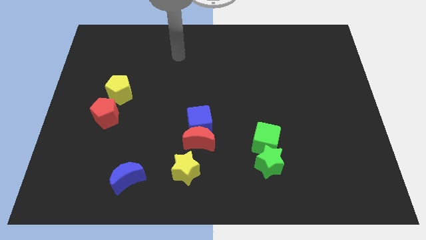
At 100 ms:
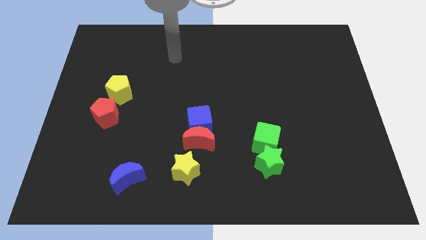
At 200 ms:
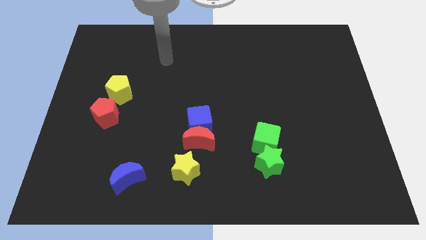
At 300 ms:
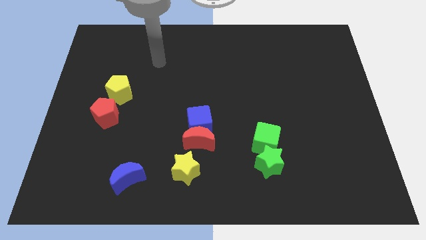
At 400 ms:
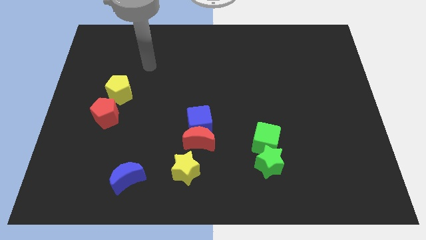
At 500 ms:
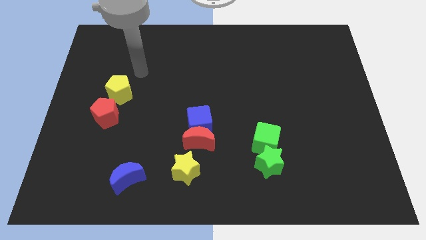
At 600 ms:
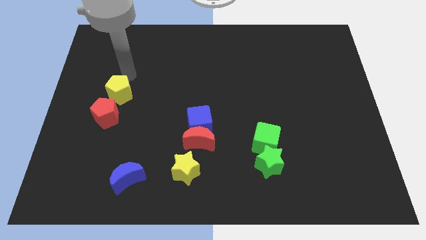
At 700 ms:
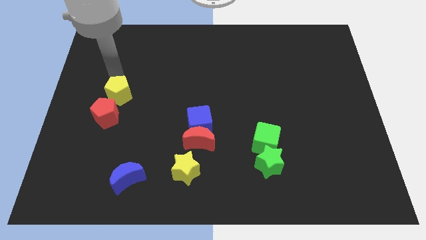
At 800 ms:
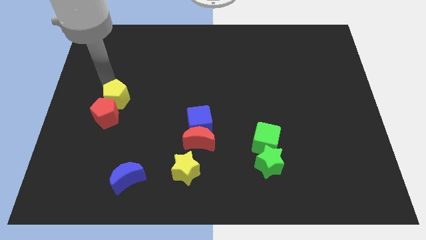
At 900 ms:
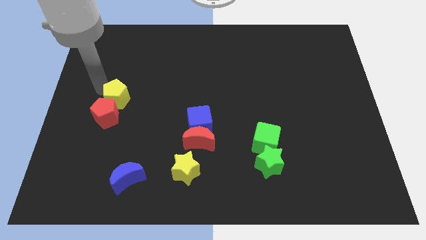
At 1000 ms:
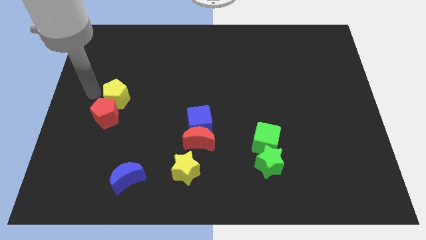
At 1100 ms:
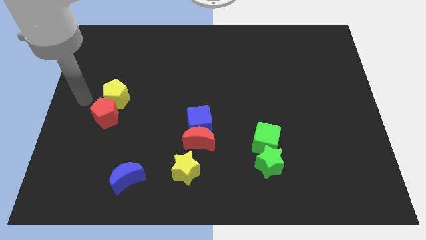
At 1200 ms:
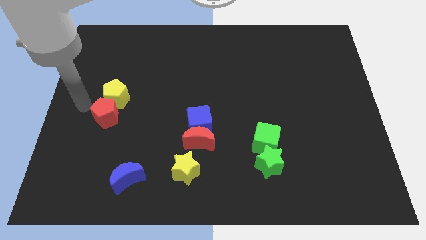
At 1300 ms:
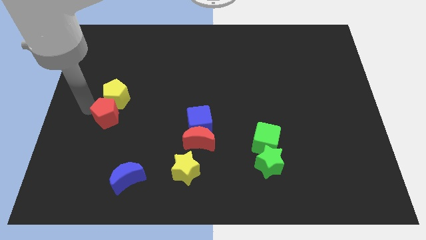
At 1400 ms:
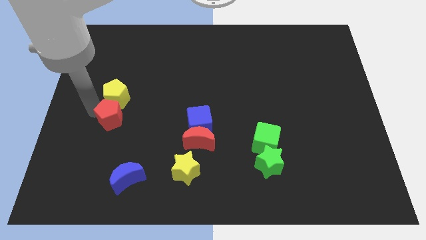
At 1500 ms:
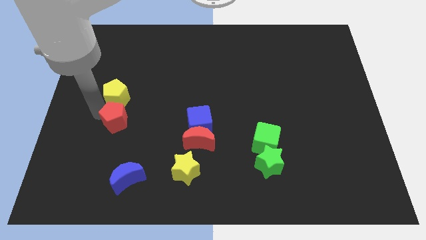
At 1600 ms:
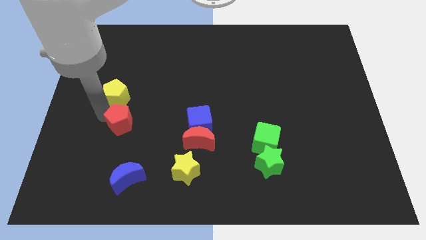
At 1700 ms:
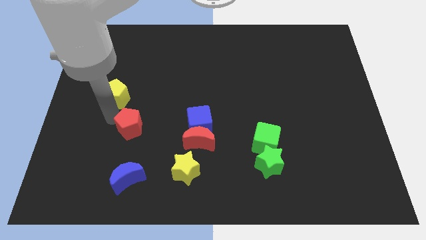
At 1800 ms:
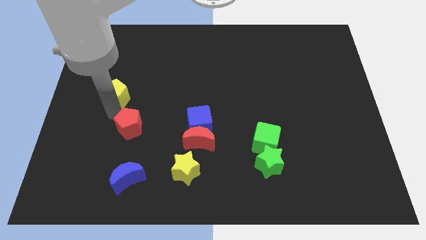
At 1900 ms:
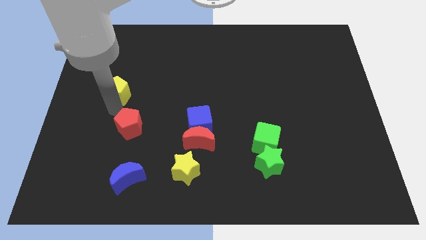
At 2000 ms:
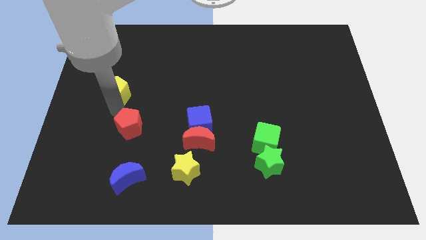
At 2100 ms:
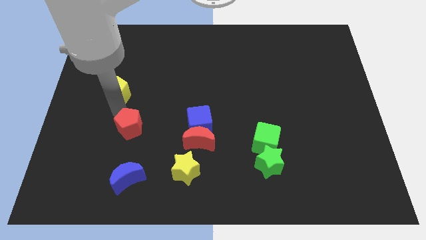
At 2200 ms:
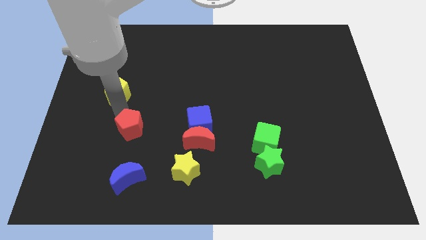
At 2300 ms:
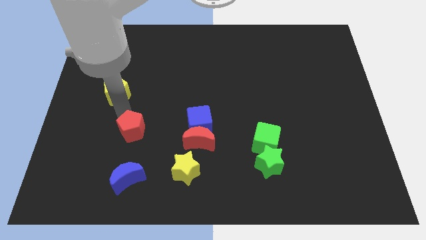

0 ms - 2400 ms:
slide the red pentagon down and to the right somewhat

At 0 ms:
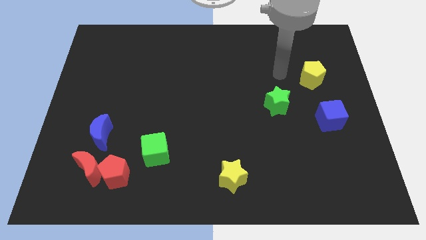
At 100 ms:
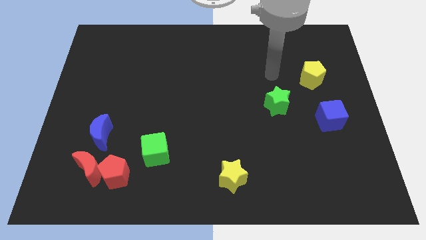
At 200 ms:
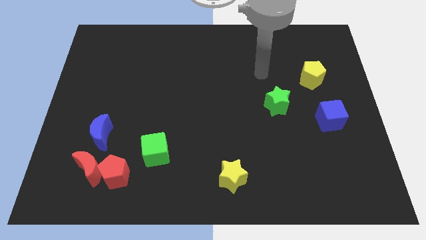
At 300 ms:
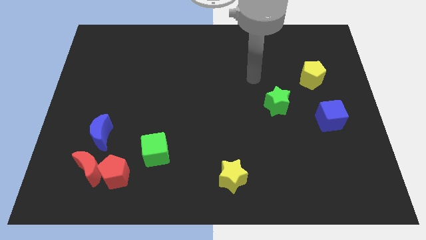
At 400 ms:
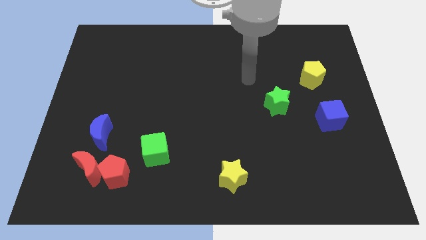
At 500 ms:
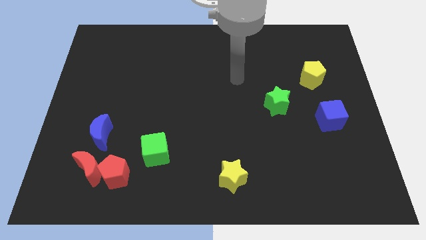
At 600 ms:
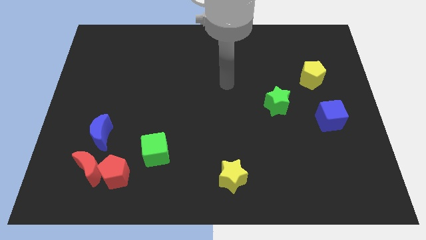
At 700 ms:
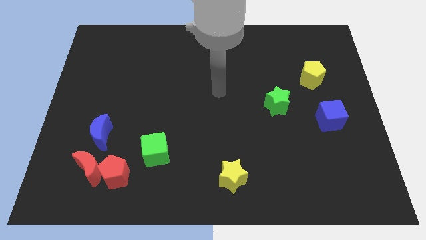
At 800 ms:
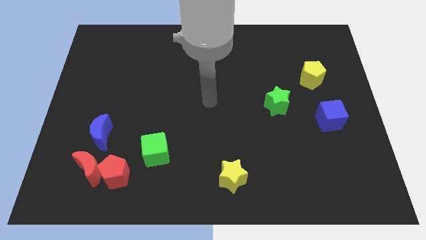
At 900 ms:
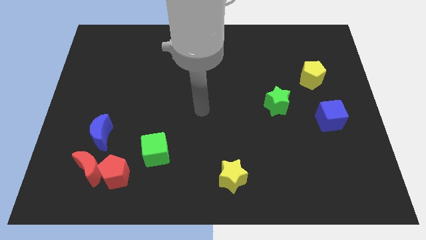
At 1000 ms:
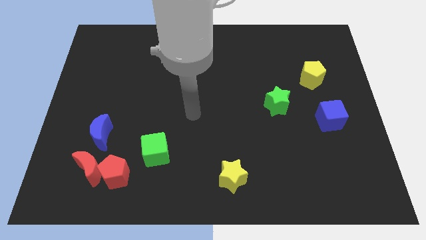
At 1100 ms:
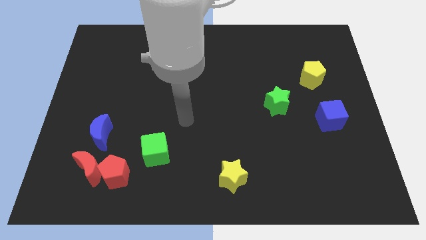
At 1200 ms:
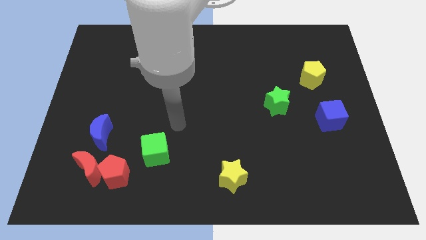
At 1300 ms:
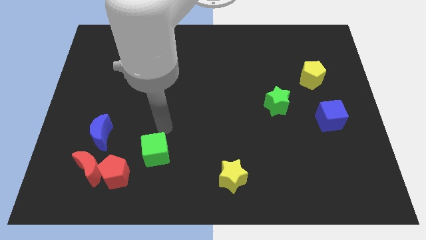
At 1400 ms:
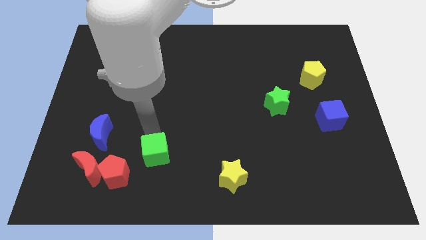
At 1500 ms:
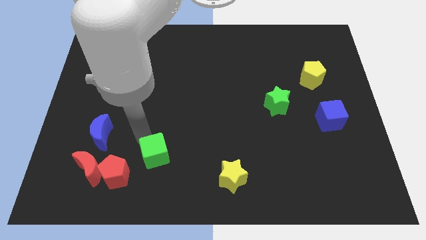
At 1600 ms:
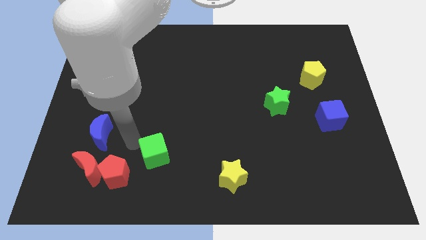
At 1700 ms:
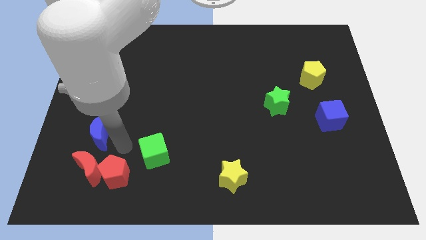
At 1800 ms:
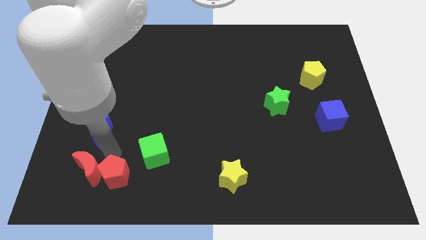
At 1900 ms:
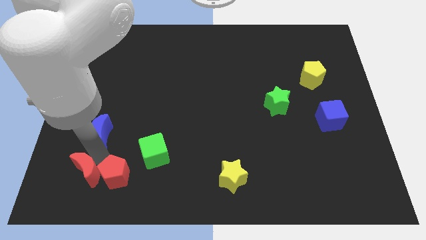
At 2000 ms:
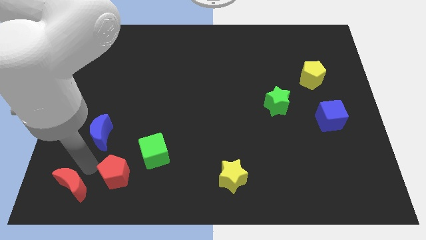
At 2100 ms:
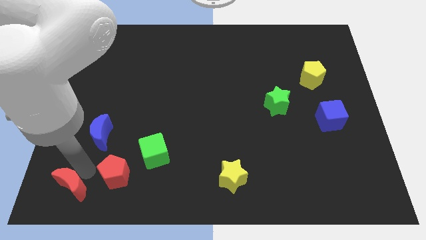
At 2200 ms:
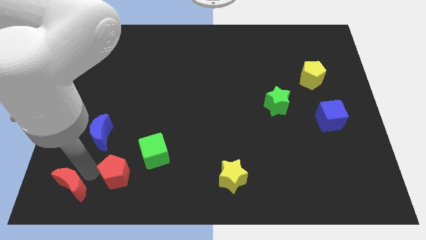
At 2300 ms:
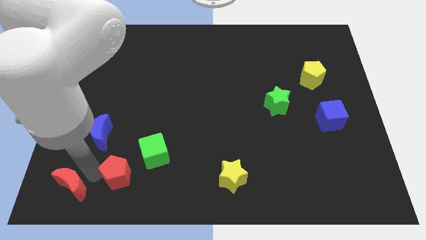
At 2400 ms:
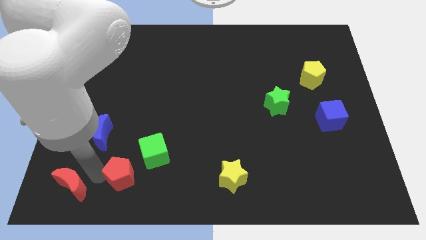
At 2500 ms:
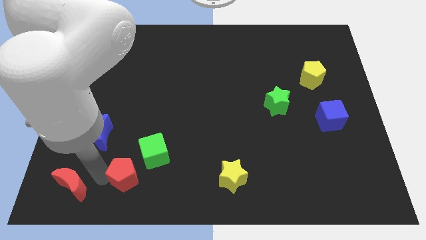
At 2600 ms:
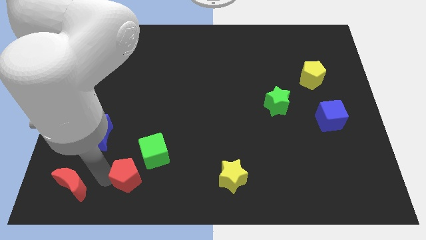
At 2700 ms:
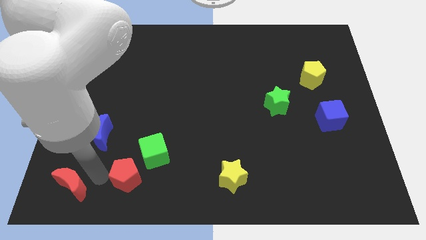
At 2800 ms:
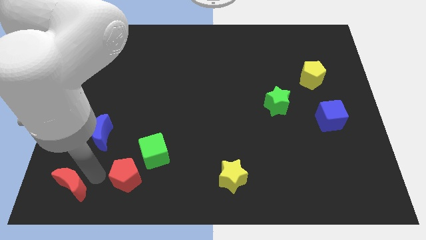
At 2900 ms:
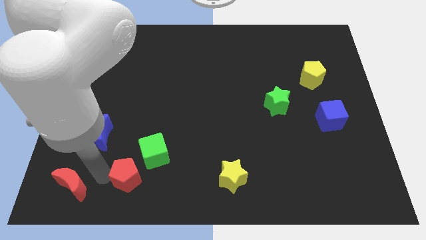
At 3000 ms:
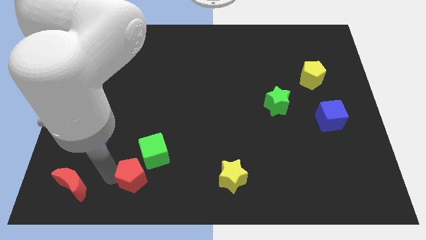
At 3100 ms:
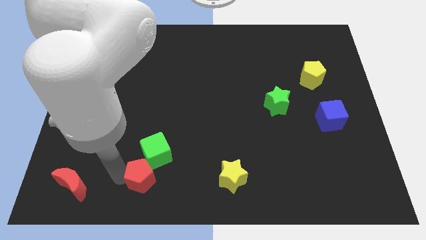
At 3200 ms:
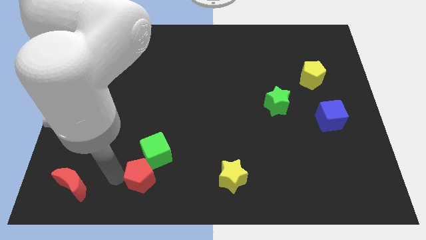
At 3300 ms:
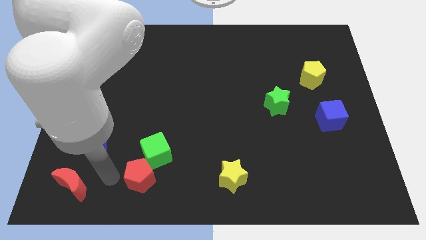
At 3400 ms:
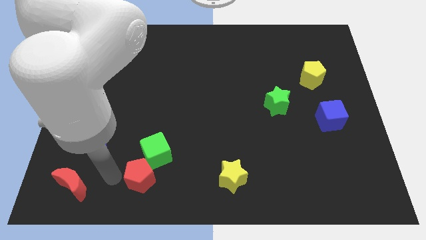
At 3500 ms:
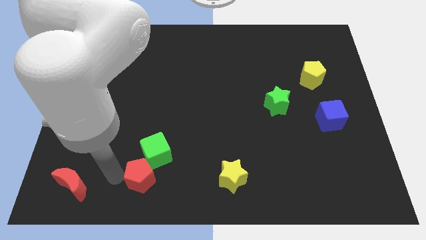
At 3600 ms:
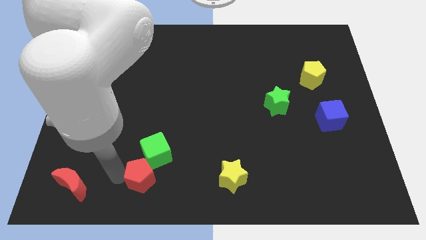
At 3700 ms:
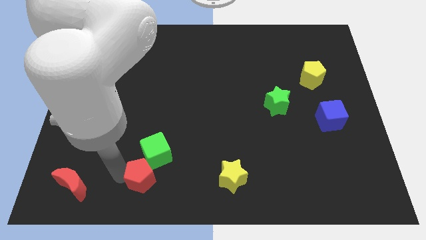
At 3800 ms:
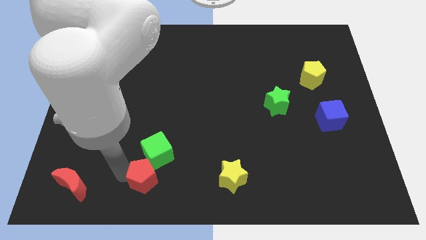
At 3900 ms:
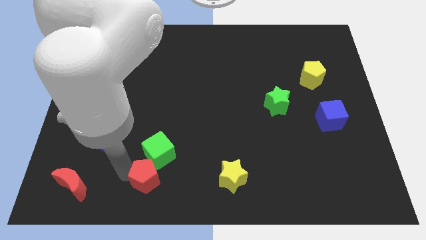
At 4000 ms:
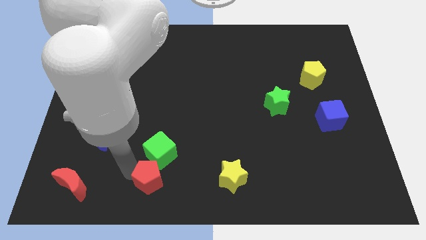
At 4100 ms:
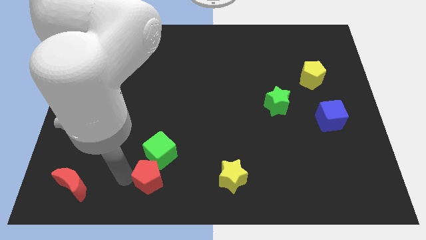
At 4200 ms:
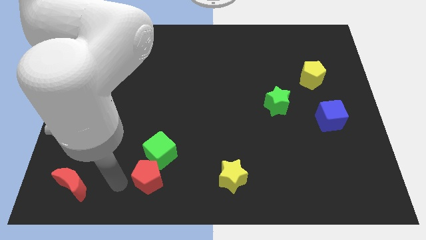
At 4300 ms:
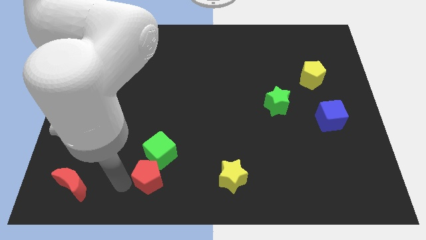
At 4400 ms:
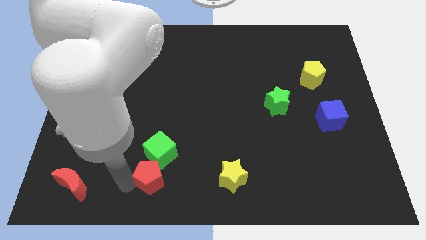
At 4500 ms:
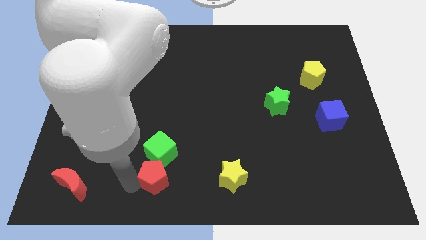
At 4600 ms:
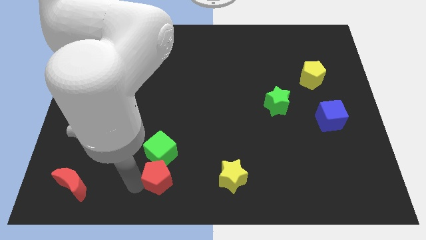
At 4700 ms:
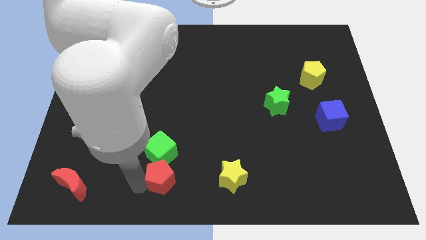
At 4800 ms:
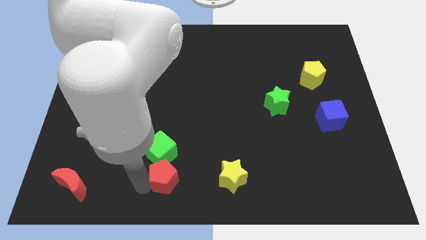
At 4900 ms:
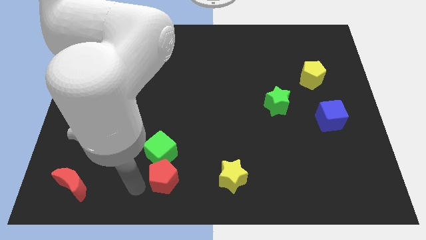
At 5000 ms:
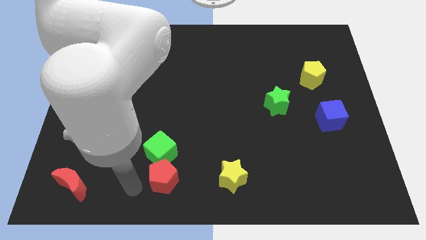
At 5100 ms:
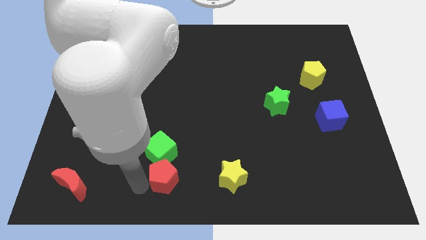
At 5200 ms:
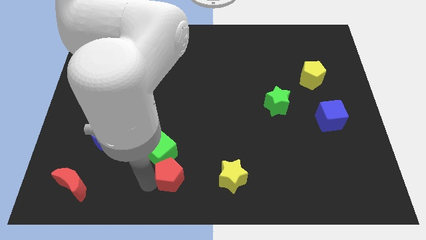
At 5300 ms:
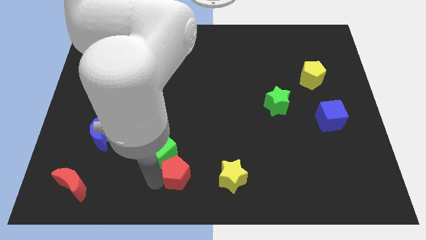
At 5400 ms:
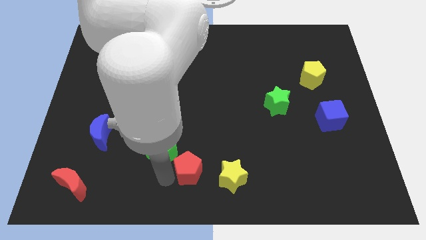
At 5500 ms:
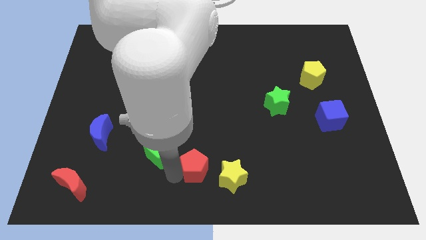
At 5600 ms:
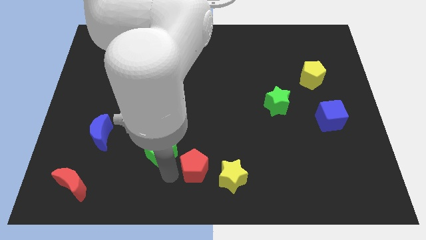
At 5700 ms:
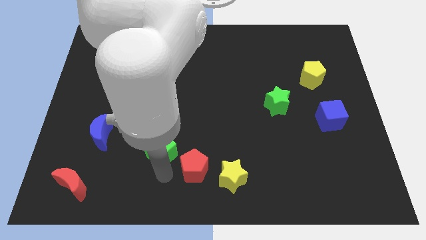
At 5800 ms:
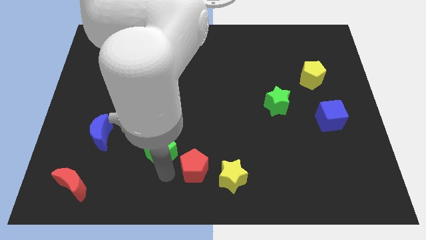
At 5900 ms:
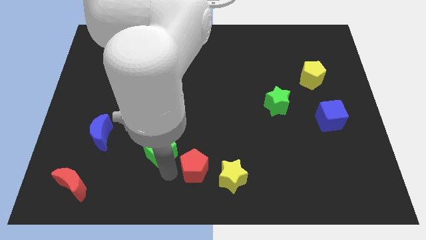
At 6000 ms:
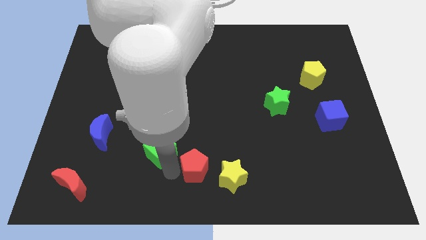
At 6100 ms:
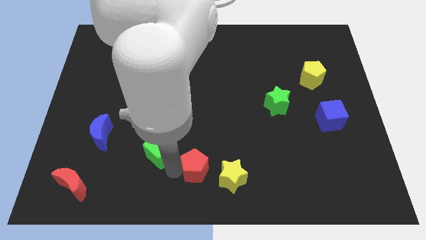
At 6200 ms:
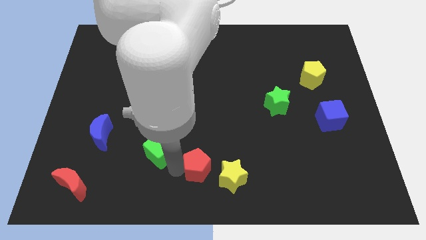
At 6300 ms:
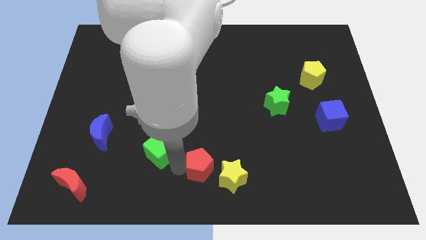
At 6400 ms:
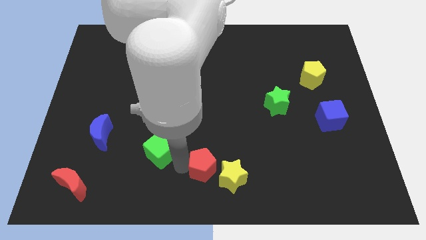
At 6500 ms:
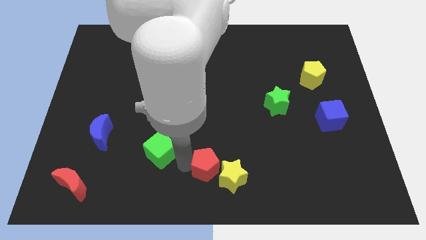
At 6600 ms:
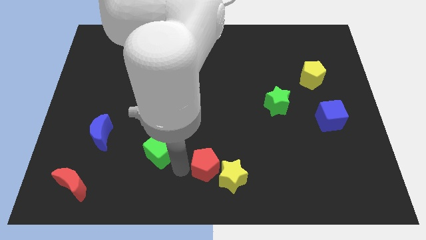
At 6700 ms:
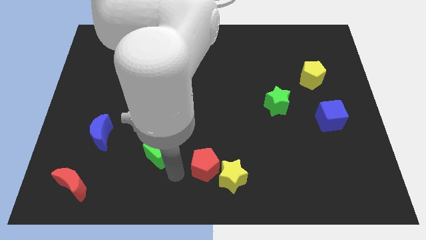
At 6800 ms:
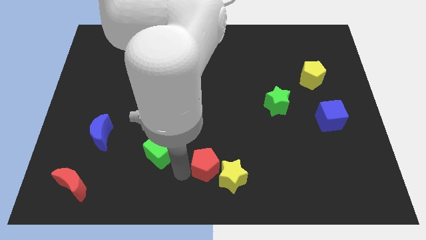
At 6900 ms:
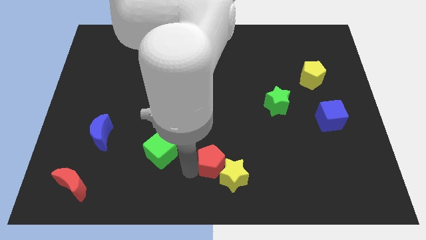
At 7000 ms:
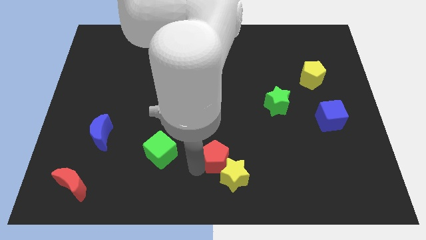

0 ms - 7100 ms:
push the red pentagon to the right
